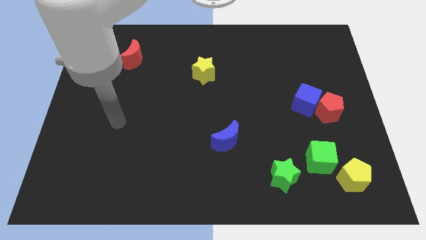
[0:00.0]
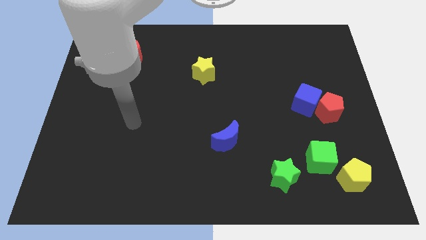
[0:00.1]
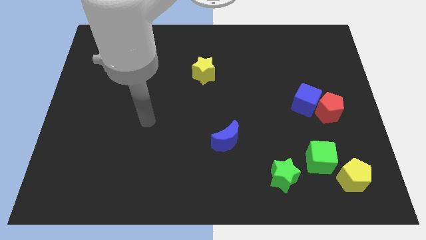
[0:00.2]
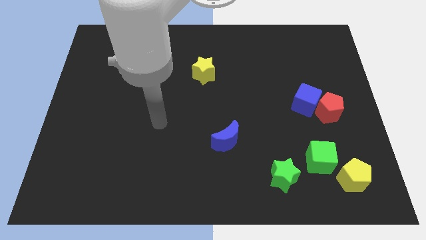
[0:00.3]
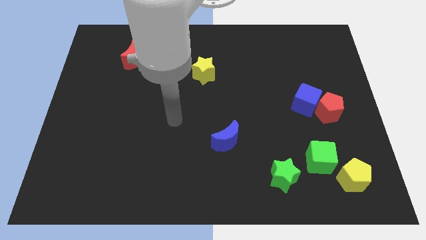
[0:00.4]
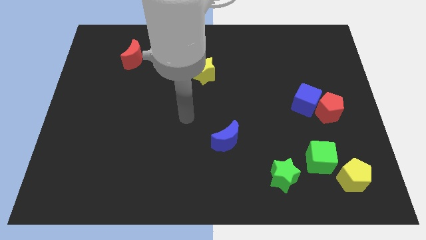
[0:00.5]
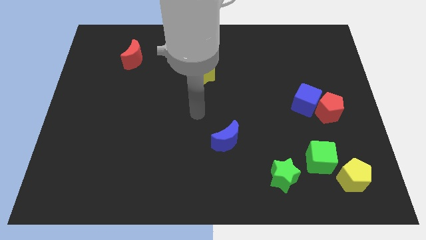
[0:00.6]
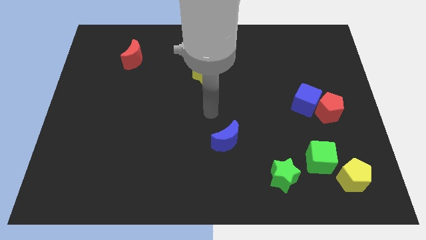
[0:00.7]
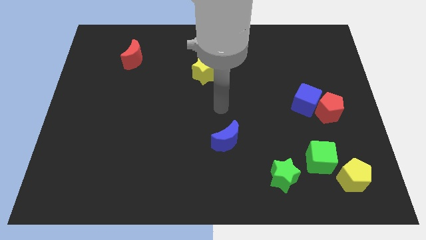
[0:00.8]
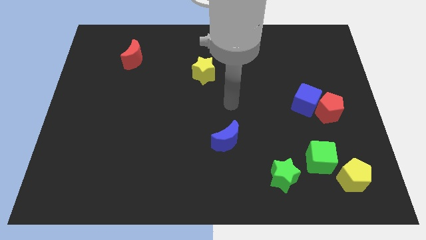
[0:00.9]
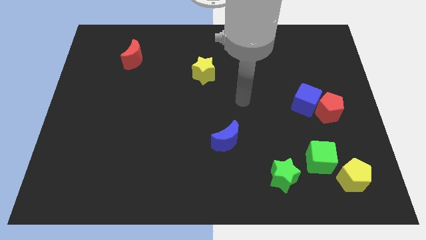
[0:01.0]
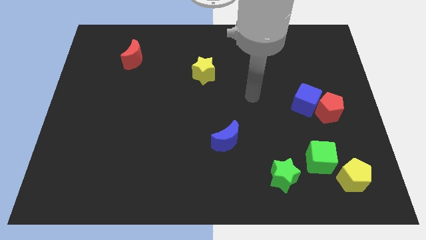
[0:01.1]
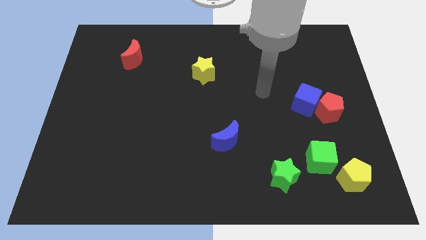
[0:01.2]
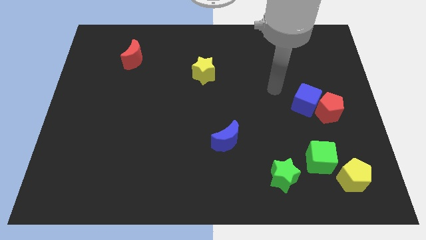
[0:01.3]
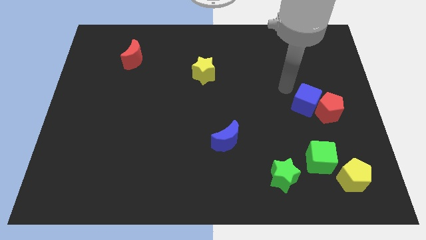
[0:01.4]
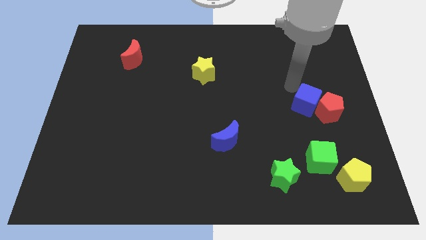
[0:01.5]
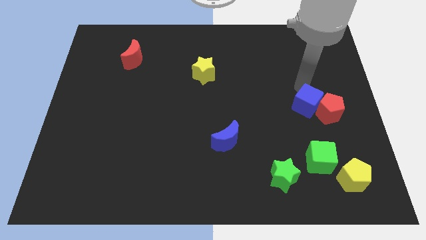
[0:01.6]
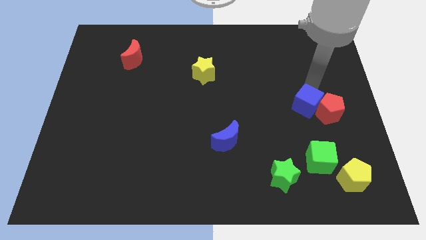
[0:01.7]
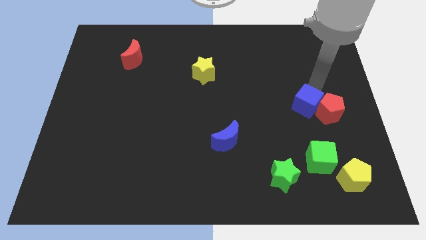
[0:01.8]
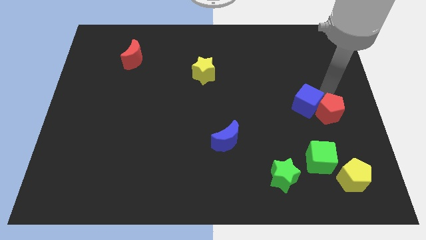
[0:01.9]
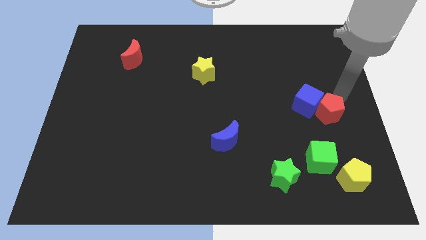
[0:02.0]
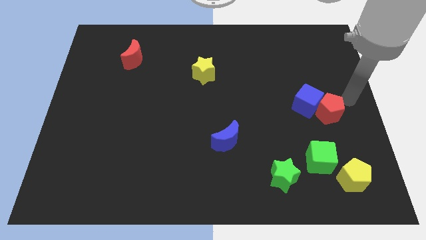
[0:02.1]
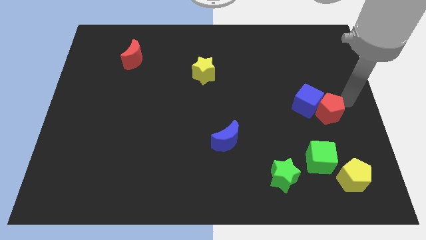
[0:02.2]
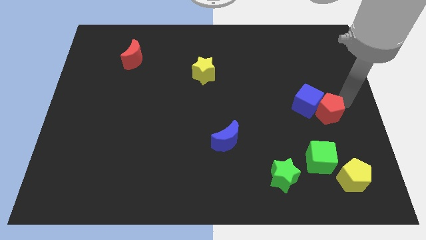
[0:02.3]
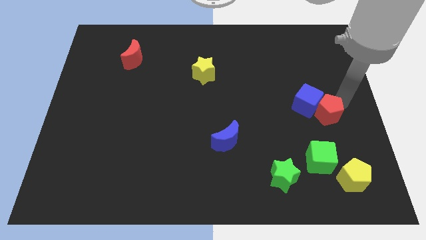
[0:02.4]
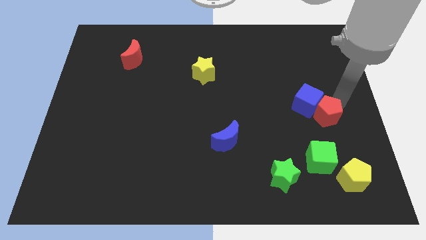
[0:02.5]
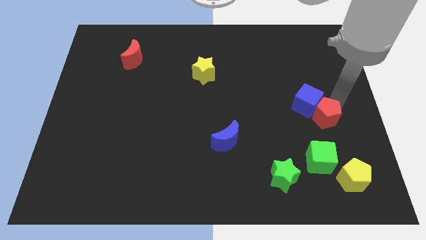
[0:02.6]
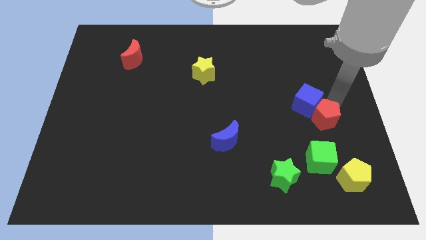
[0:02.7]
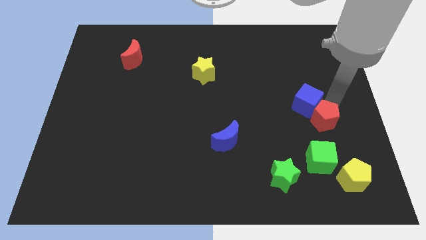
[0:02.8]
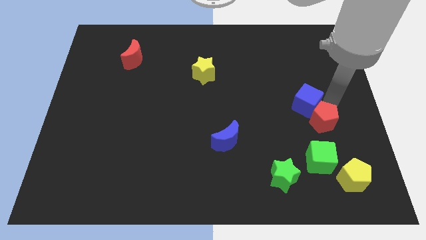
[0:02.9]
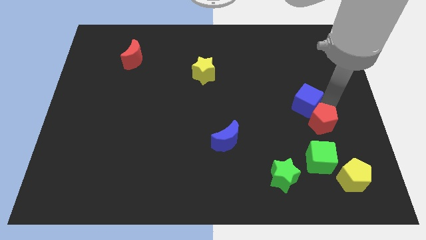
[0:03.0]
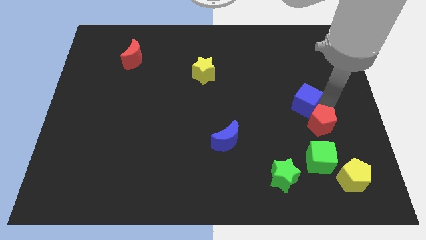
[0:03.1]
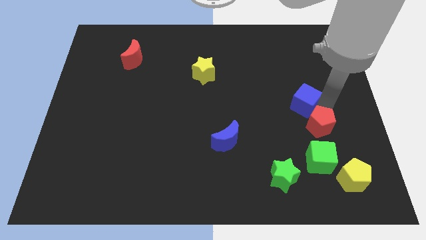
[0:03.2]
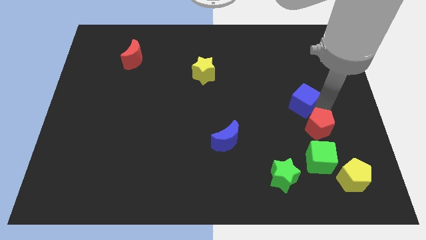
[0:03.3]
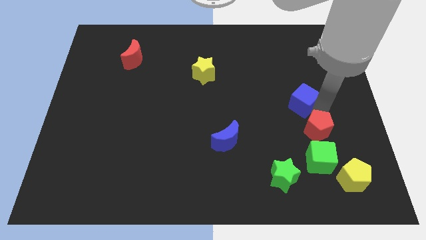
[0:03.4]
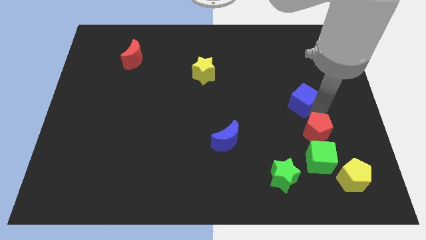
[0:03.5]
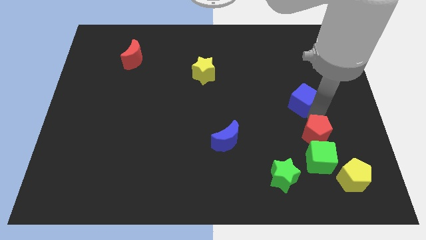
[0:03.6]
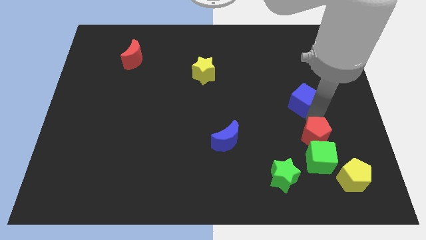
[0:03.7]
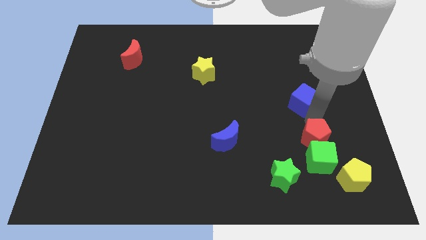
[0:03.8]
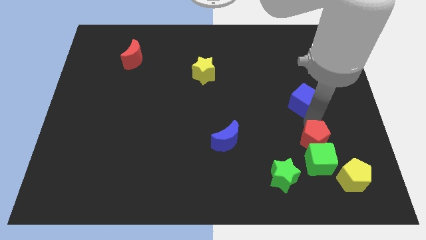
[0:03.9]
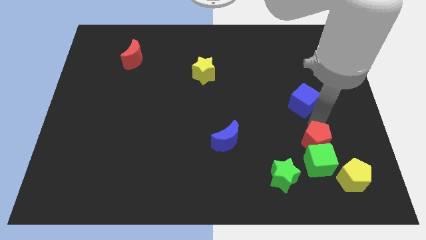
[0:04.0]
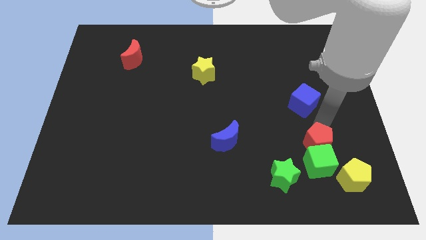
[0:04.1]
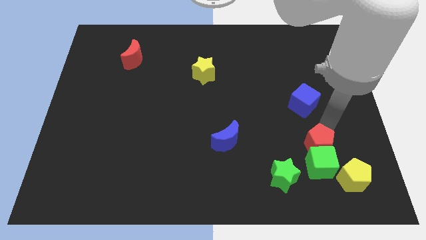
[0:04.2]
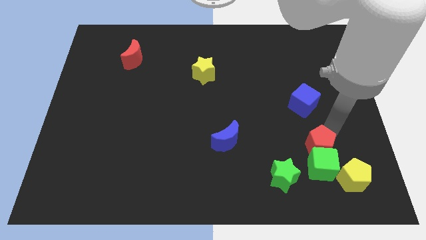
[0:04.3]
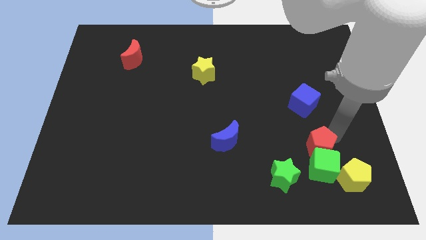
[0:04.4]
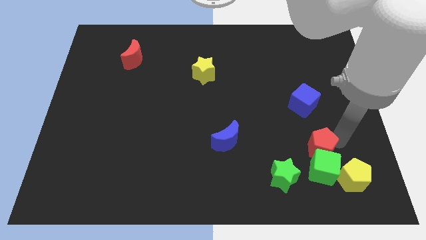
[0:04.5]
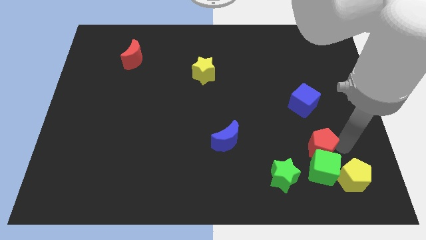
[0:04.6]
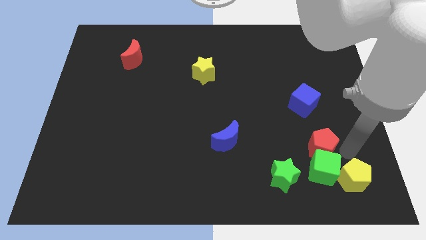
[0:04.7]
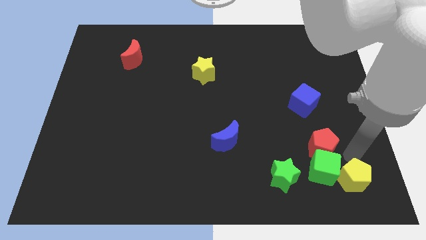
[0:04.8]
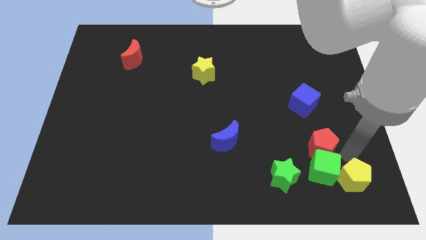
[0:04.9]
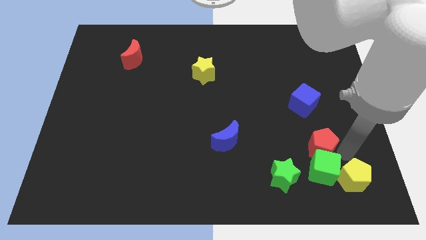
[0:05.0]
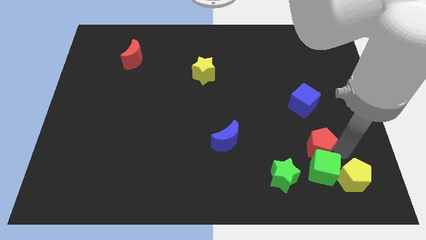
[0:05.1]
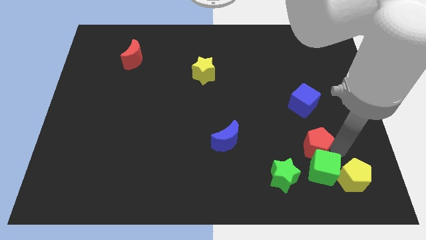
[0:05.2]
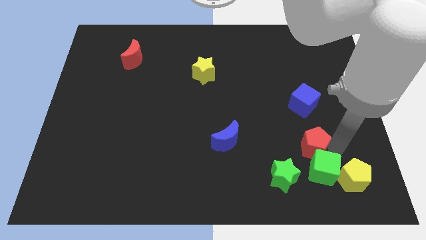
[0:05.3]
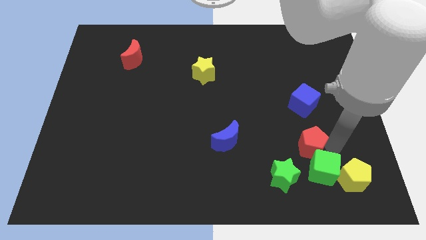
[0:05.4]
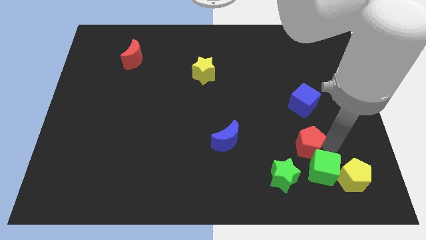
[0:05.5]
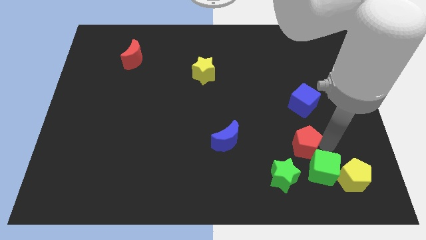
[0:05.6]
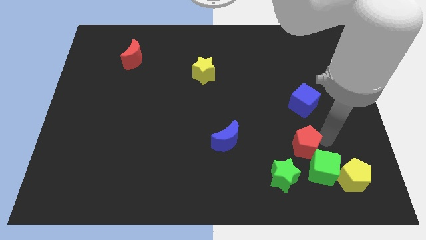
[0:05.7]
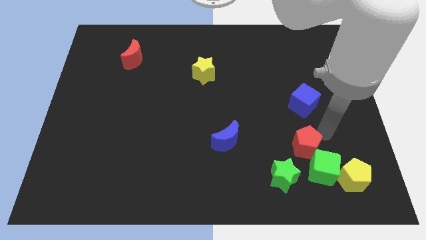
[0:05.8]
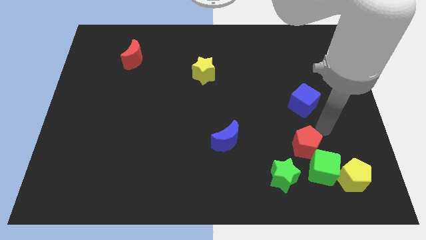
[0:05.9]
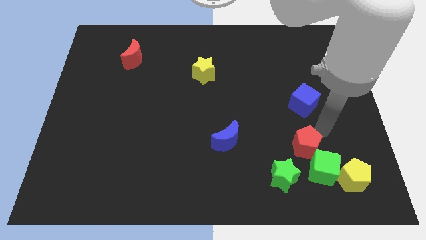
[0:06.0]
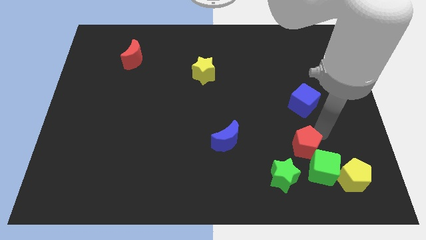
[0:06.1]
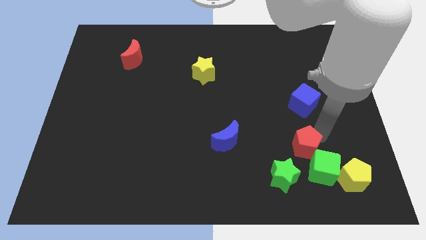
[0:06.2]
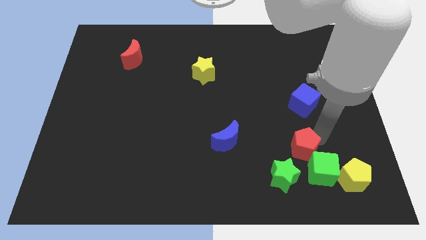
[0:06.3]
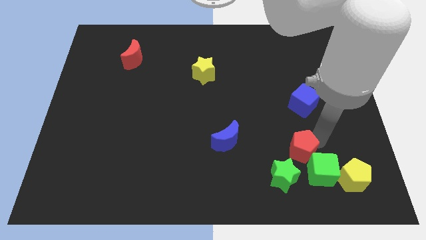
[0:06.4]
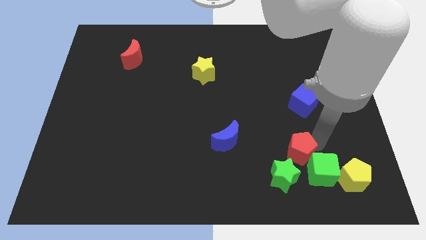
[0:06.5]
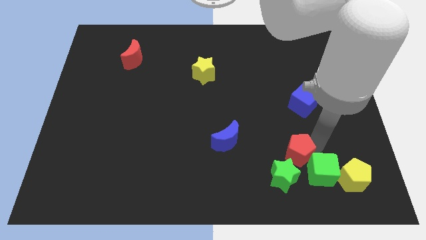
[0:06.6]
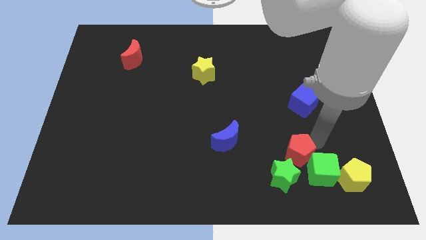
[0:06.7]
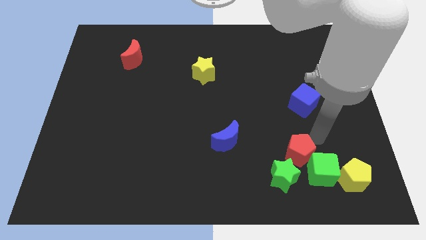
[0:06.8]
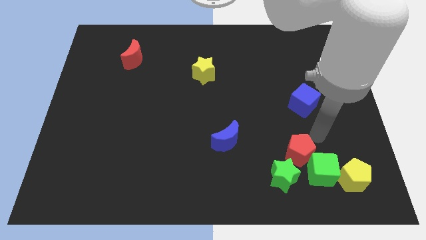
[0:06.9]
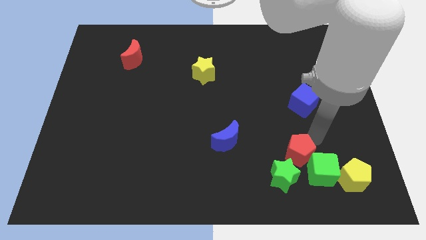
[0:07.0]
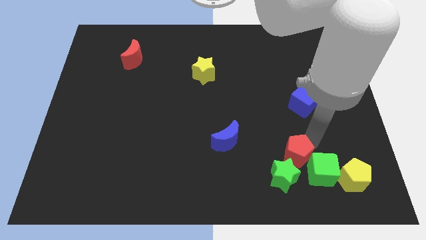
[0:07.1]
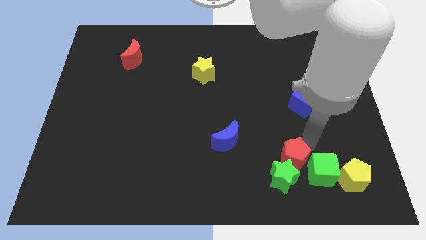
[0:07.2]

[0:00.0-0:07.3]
put the red pentagon close to the green star
